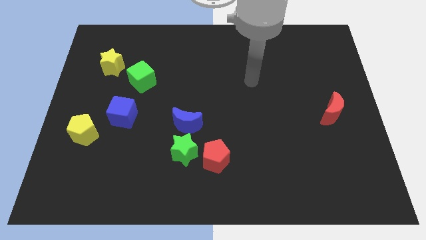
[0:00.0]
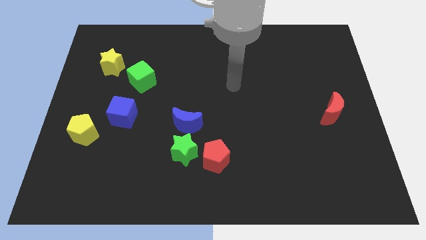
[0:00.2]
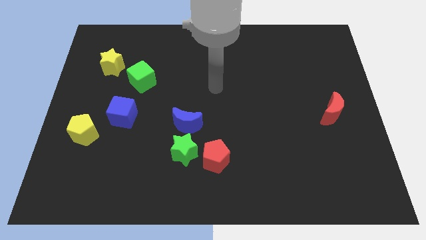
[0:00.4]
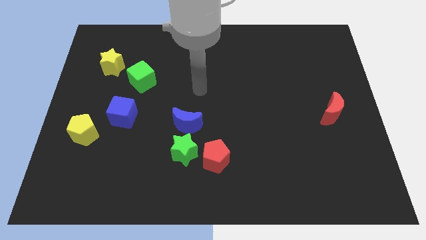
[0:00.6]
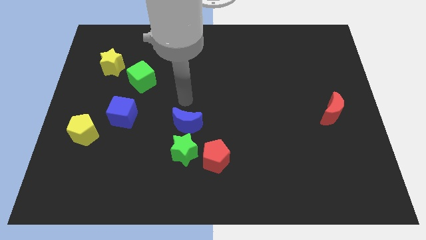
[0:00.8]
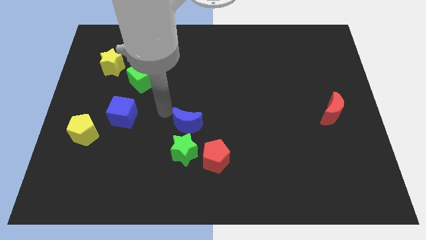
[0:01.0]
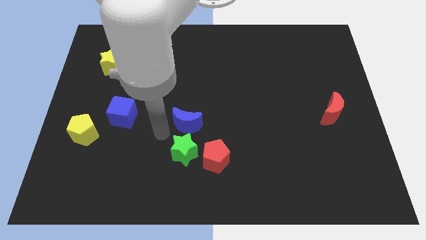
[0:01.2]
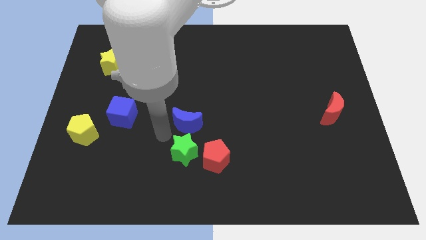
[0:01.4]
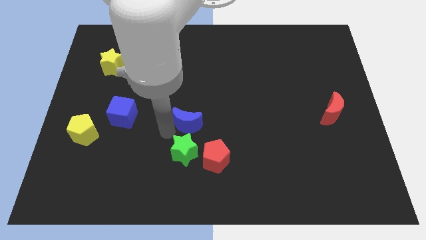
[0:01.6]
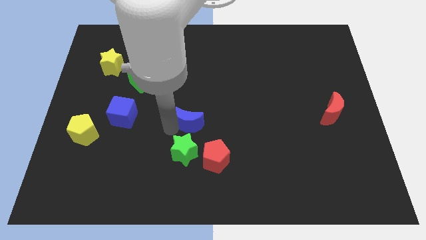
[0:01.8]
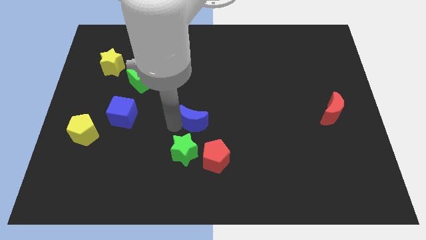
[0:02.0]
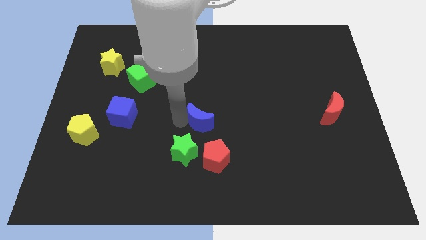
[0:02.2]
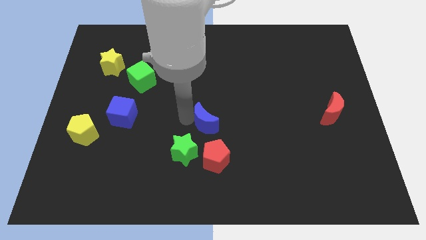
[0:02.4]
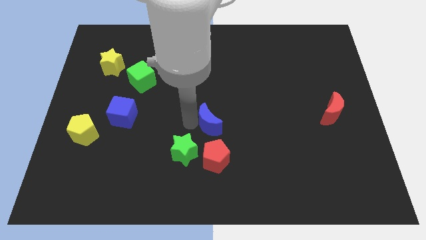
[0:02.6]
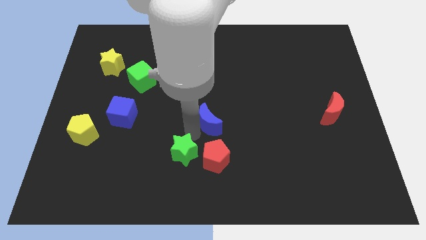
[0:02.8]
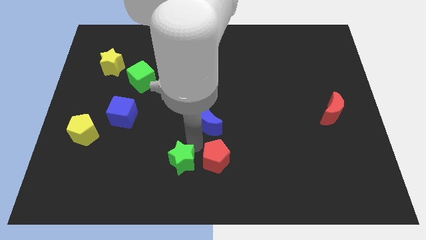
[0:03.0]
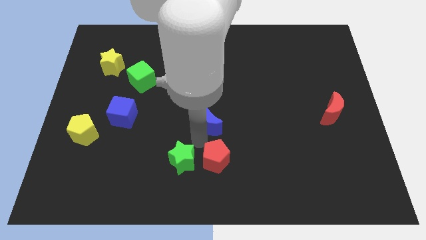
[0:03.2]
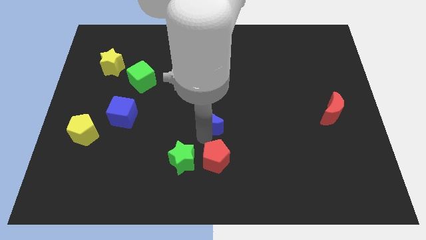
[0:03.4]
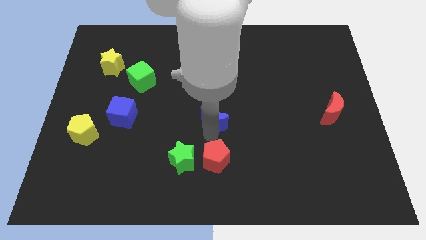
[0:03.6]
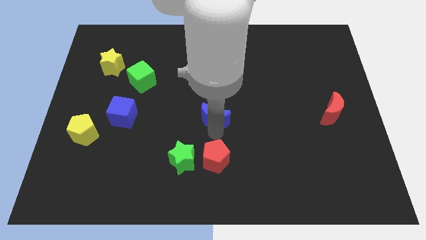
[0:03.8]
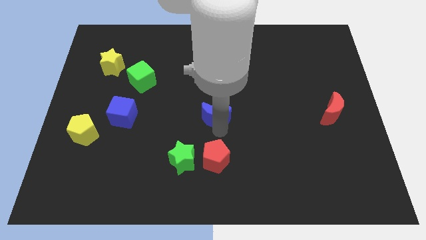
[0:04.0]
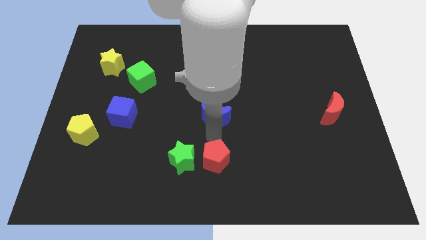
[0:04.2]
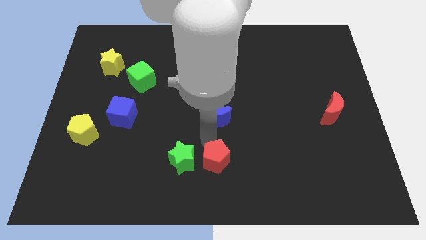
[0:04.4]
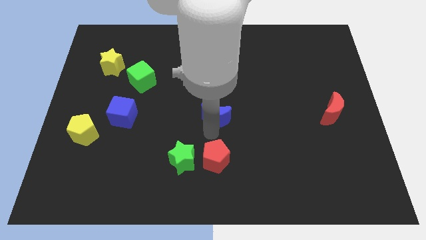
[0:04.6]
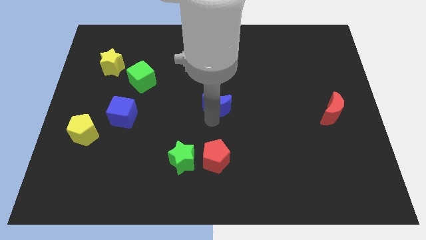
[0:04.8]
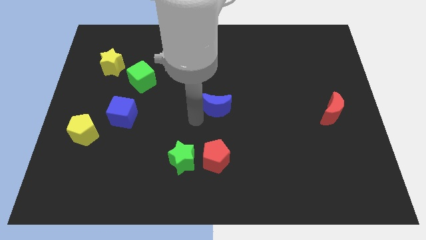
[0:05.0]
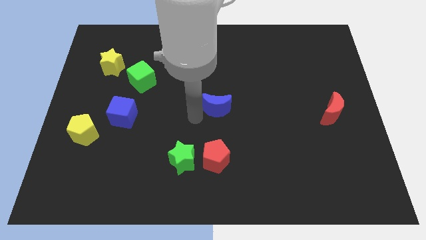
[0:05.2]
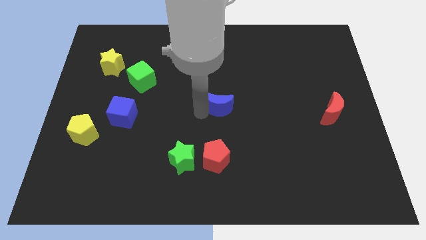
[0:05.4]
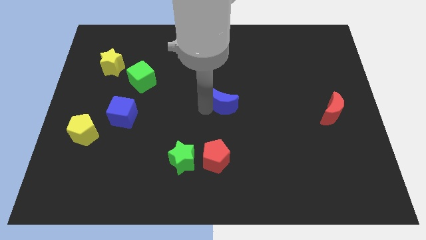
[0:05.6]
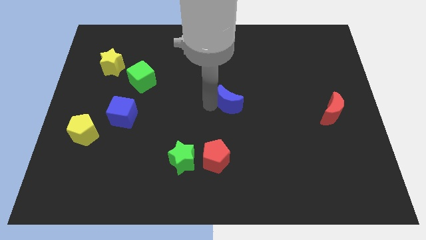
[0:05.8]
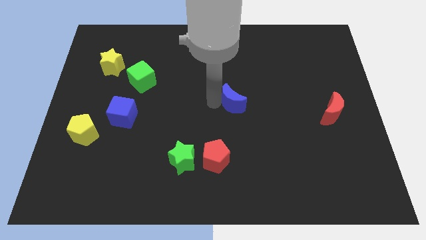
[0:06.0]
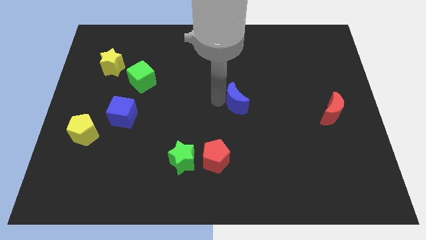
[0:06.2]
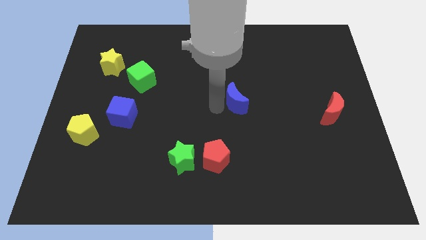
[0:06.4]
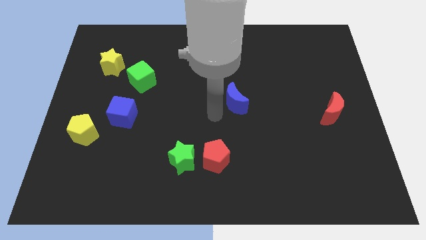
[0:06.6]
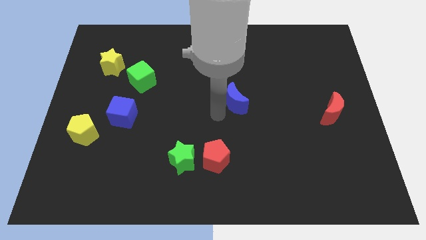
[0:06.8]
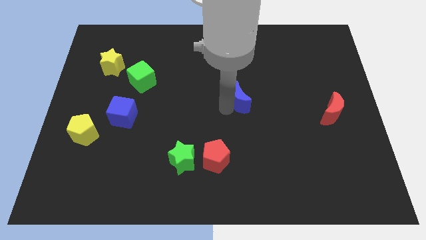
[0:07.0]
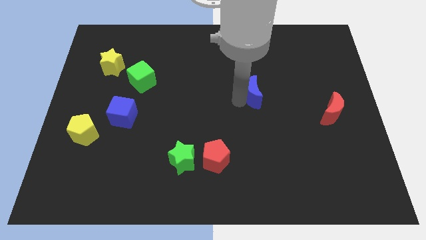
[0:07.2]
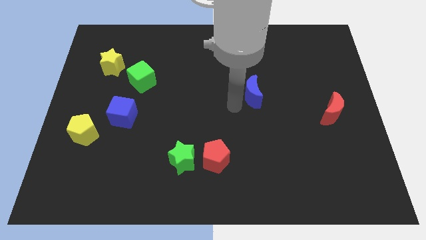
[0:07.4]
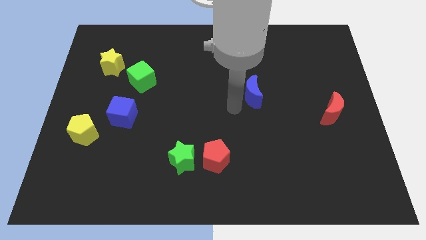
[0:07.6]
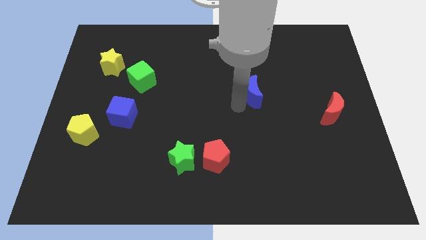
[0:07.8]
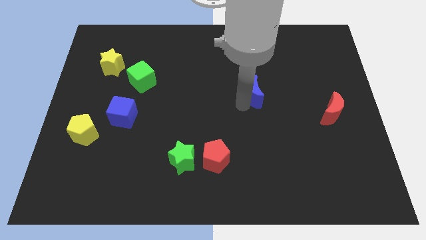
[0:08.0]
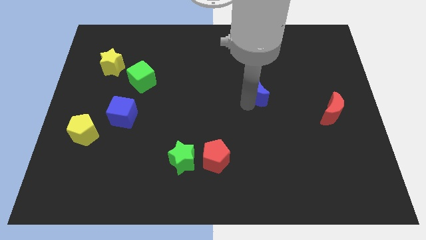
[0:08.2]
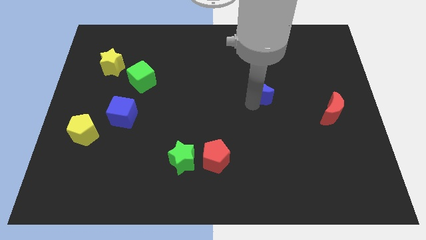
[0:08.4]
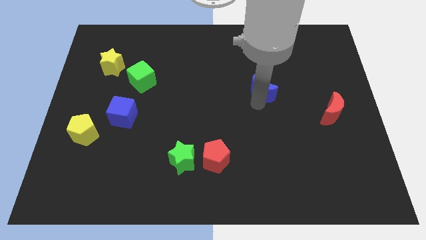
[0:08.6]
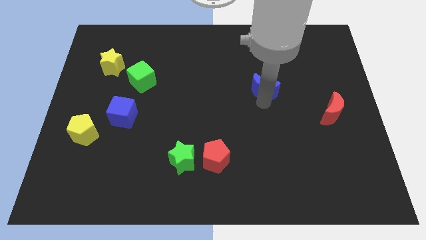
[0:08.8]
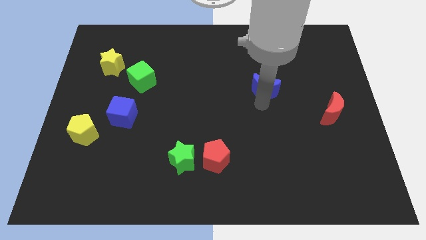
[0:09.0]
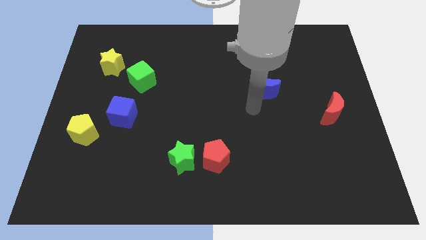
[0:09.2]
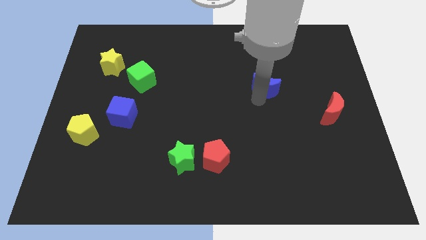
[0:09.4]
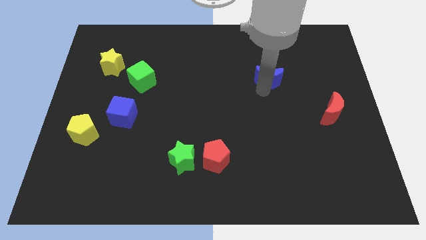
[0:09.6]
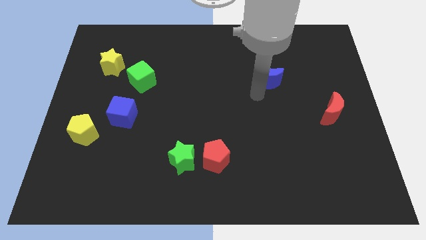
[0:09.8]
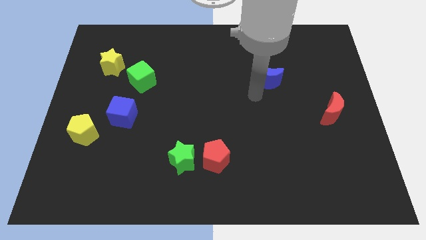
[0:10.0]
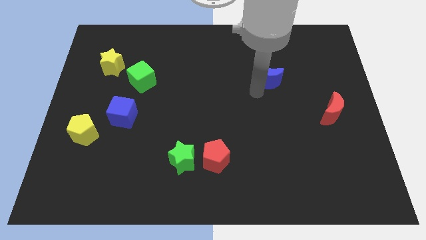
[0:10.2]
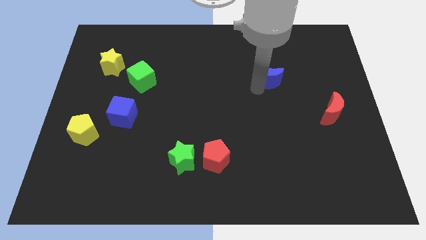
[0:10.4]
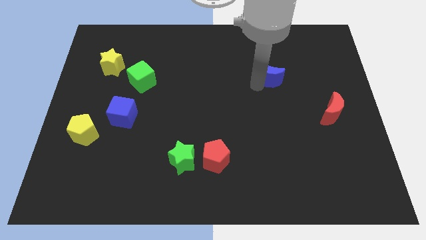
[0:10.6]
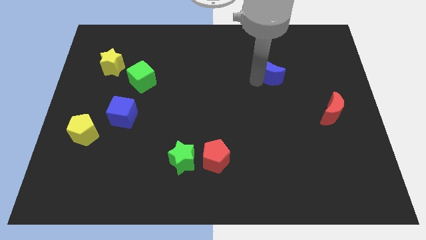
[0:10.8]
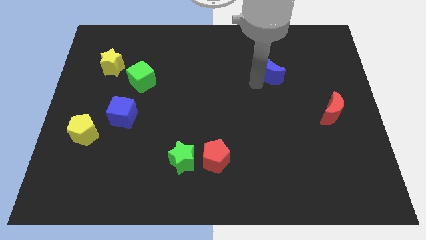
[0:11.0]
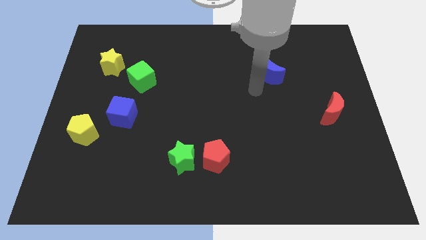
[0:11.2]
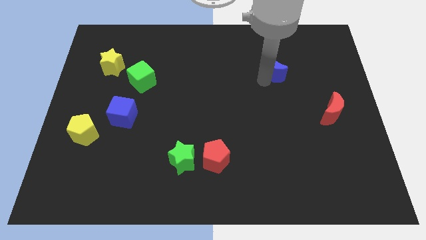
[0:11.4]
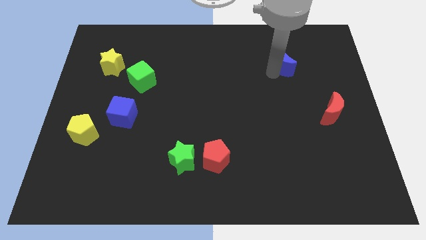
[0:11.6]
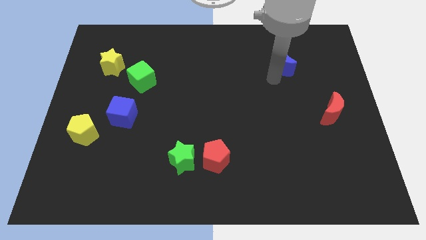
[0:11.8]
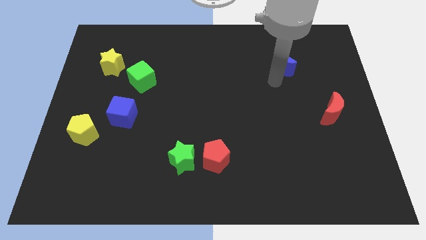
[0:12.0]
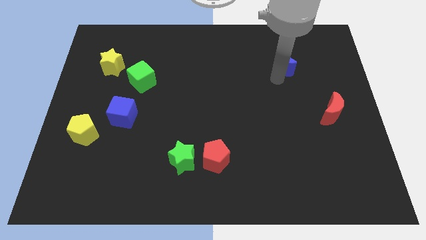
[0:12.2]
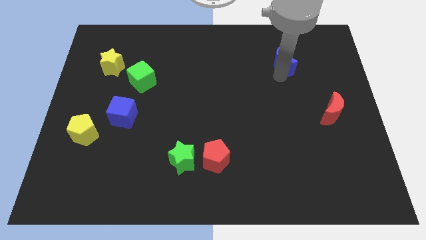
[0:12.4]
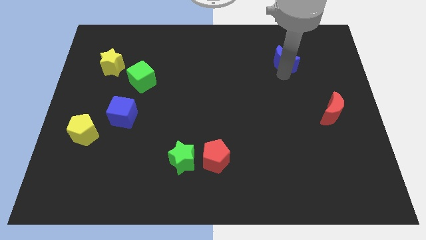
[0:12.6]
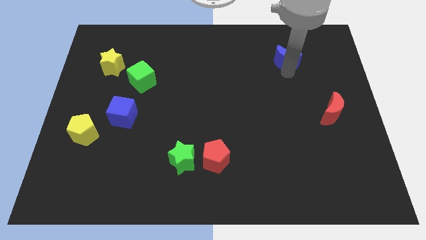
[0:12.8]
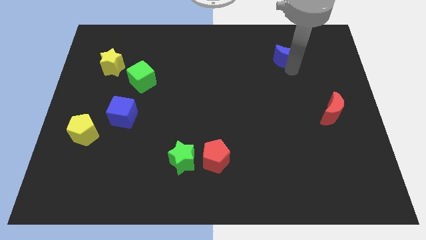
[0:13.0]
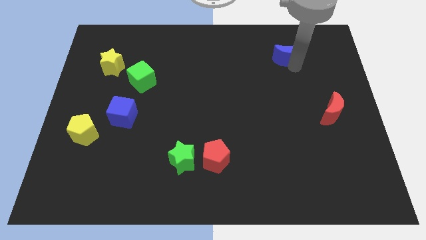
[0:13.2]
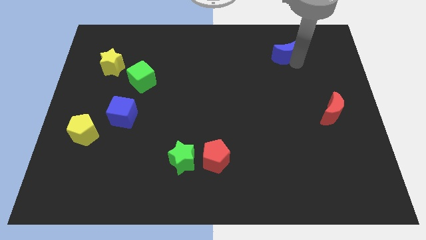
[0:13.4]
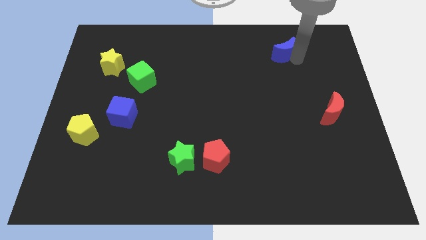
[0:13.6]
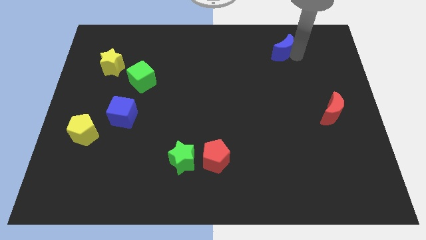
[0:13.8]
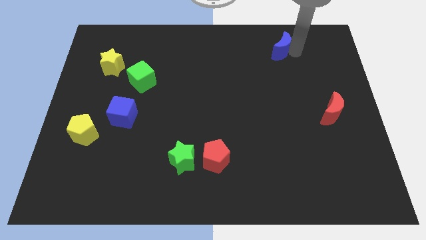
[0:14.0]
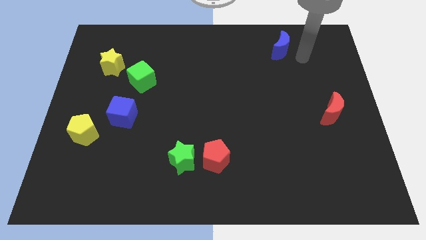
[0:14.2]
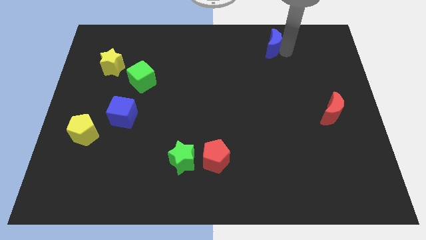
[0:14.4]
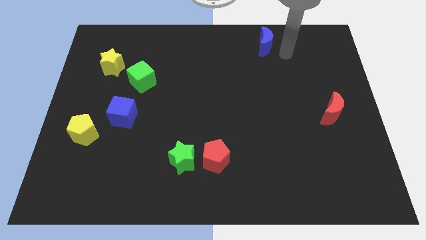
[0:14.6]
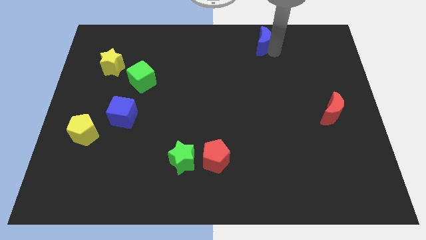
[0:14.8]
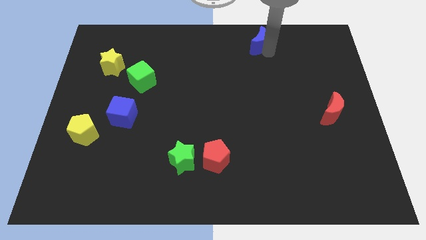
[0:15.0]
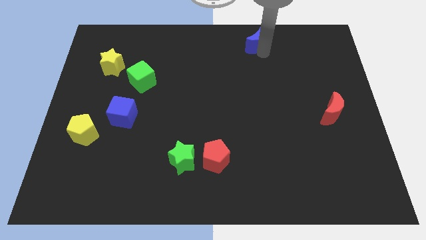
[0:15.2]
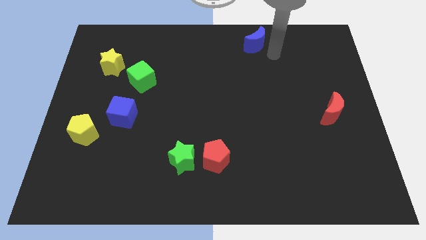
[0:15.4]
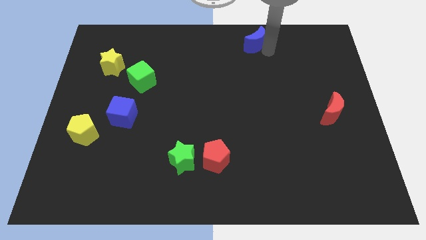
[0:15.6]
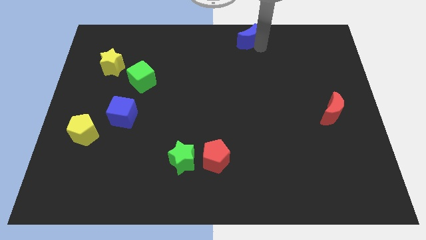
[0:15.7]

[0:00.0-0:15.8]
push the blue moon to the top side
